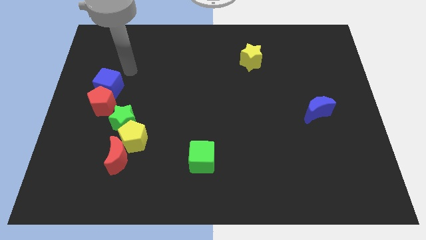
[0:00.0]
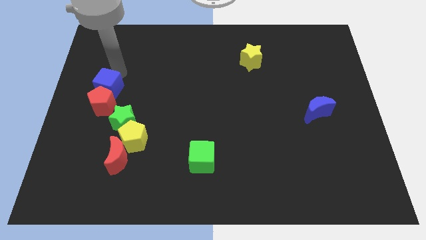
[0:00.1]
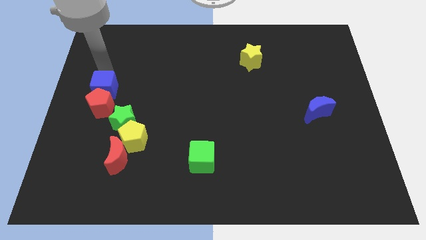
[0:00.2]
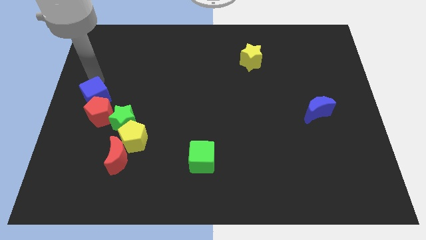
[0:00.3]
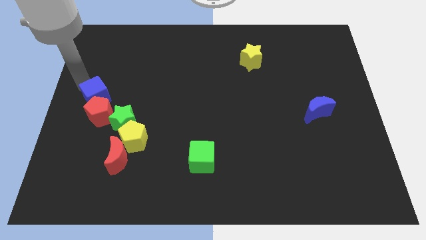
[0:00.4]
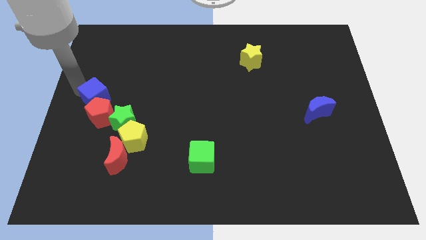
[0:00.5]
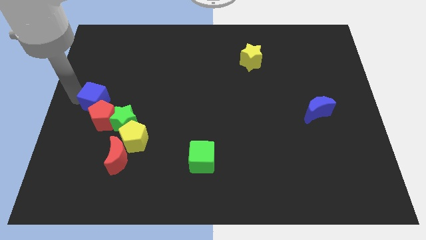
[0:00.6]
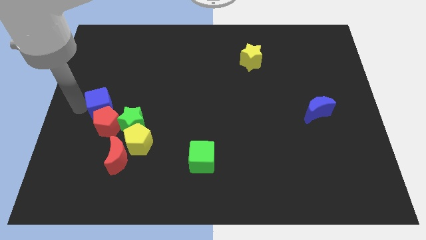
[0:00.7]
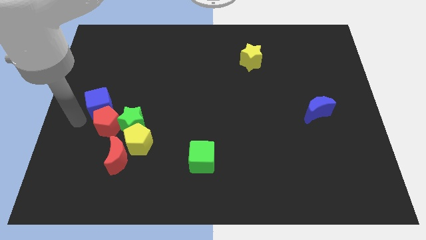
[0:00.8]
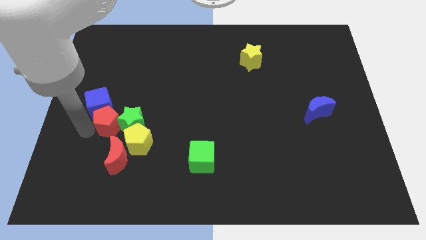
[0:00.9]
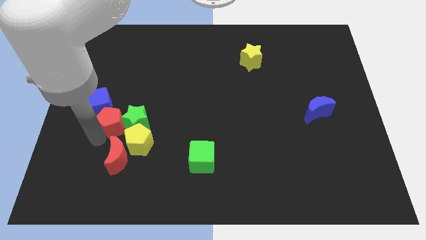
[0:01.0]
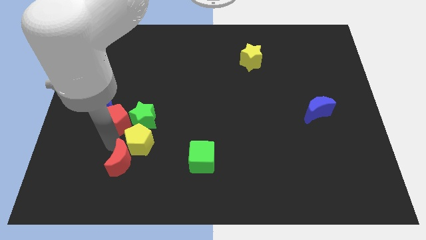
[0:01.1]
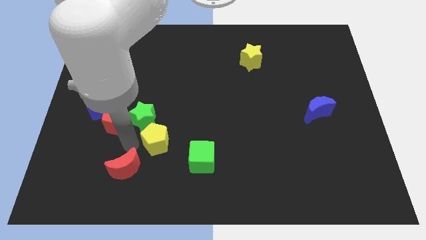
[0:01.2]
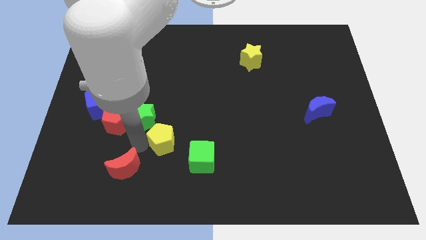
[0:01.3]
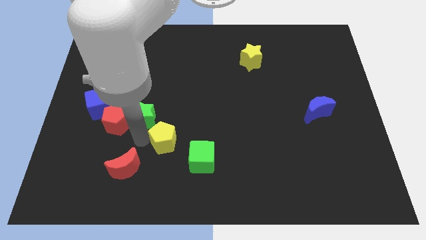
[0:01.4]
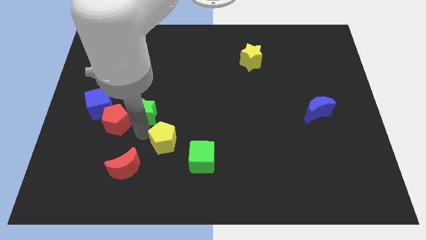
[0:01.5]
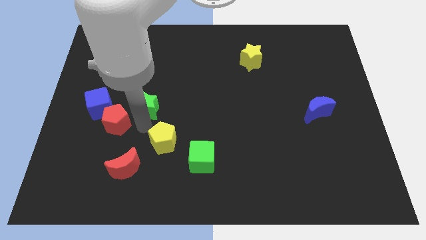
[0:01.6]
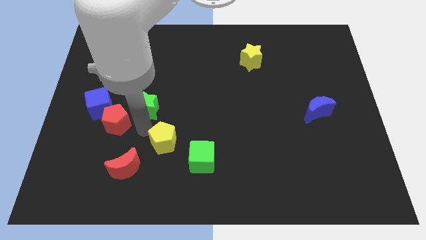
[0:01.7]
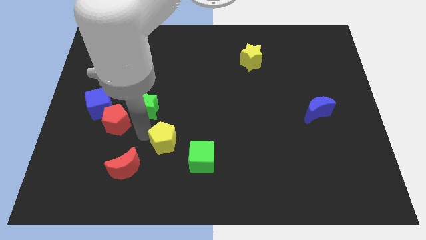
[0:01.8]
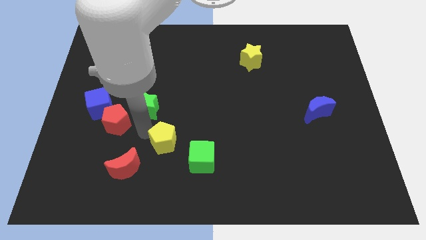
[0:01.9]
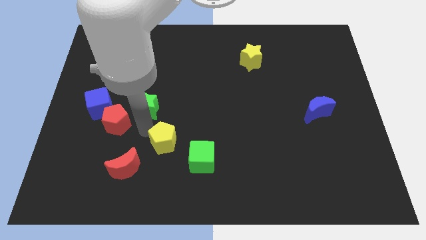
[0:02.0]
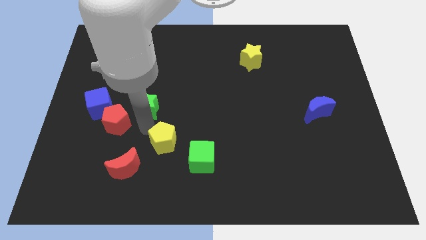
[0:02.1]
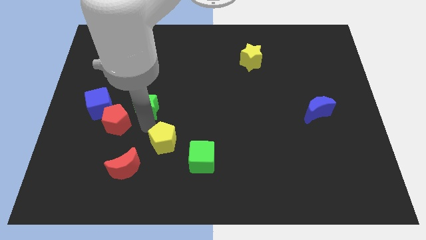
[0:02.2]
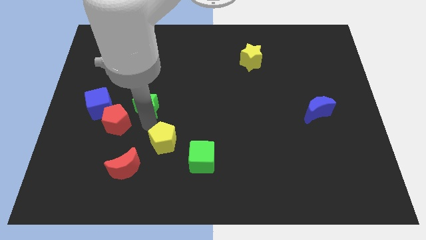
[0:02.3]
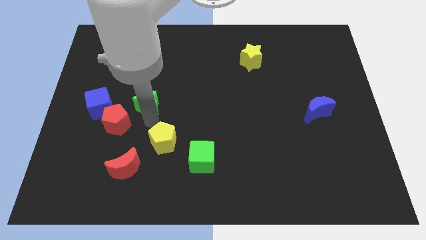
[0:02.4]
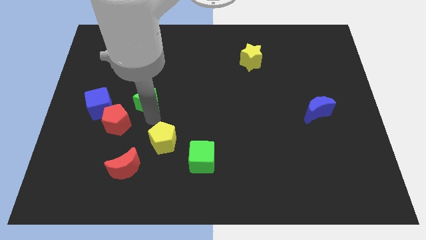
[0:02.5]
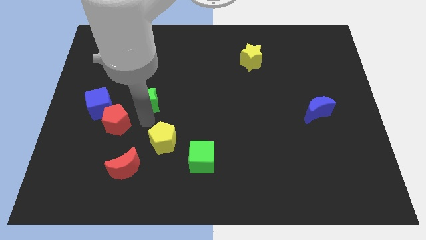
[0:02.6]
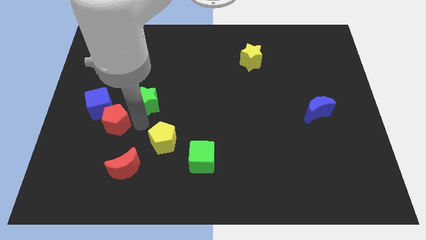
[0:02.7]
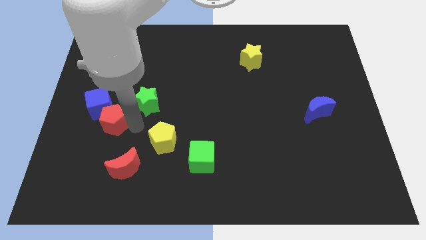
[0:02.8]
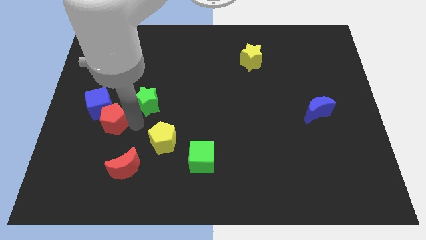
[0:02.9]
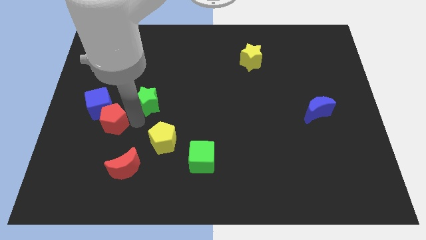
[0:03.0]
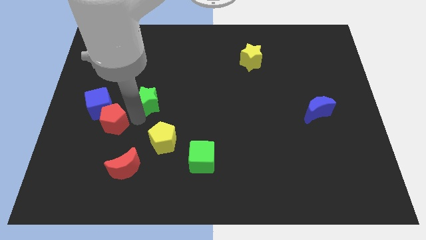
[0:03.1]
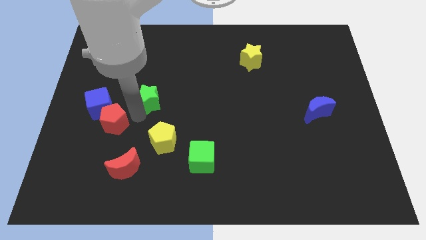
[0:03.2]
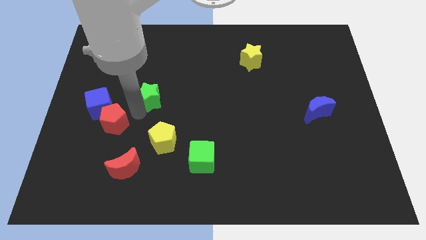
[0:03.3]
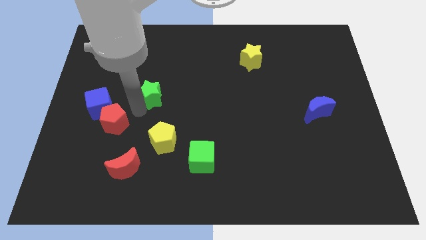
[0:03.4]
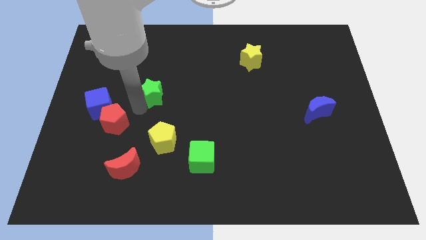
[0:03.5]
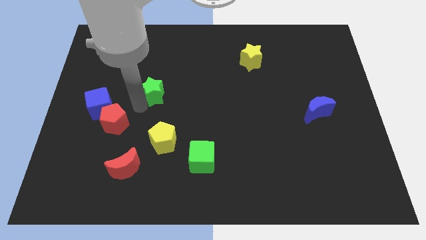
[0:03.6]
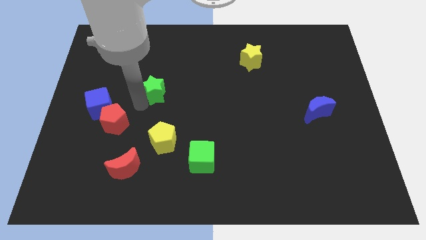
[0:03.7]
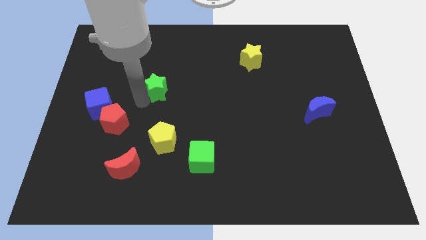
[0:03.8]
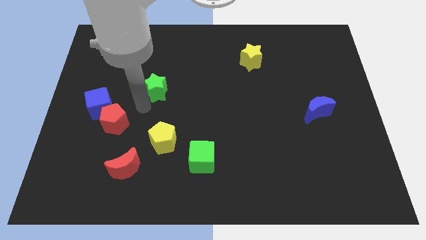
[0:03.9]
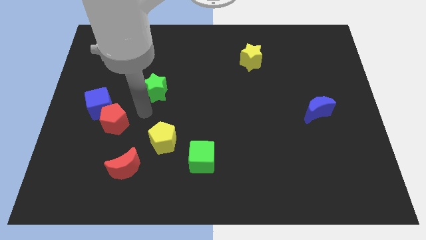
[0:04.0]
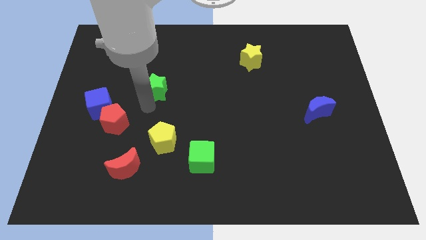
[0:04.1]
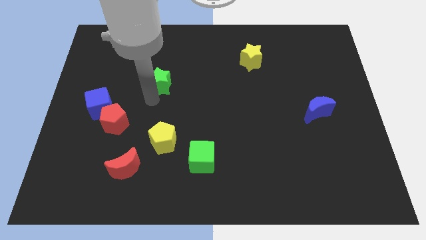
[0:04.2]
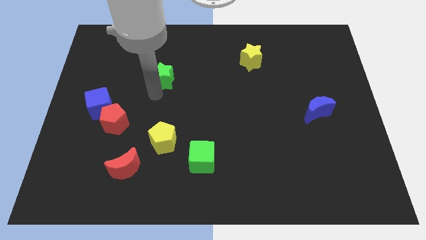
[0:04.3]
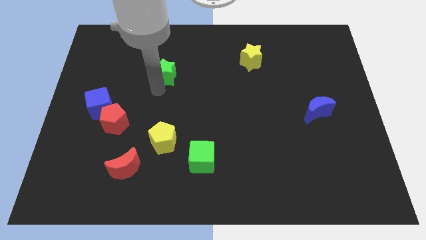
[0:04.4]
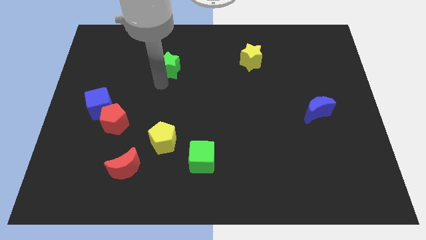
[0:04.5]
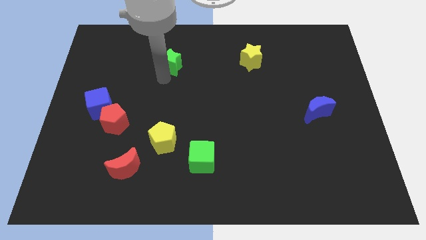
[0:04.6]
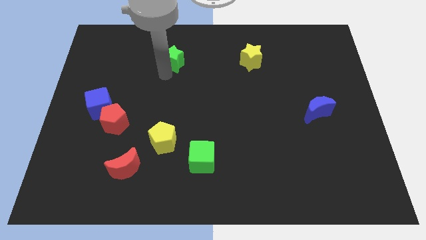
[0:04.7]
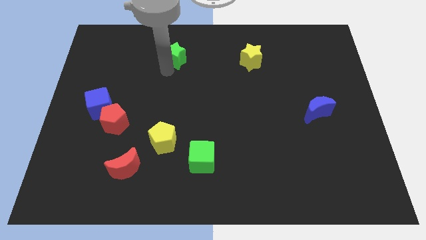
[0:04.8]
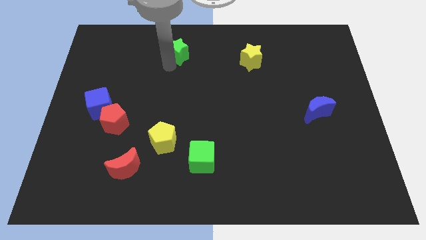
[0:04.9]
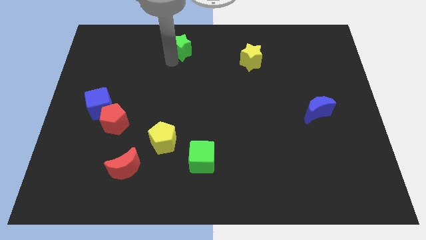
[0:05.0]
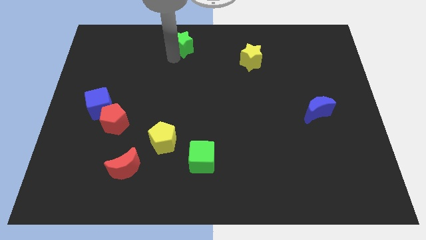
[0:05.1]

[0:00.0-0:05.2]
slide the green star to the towards your base
